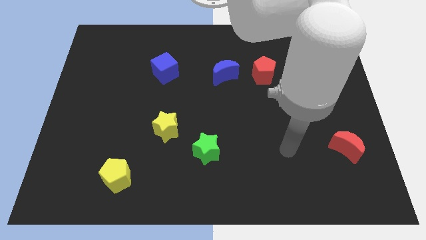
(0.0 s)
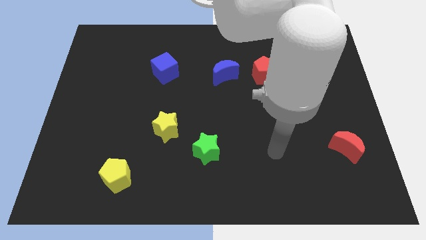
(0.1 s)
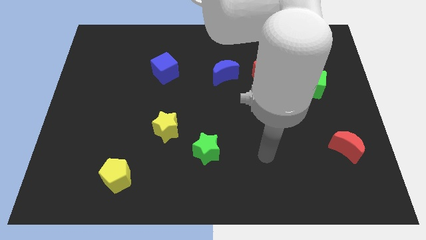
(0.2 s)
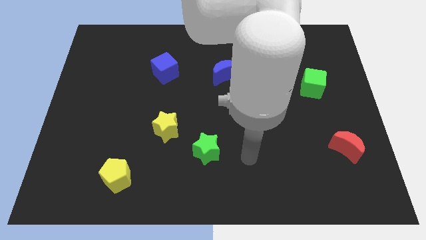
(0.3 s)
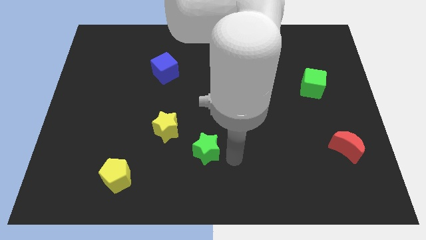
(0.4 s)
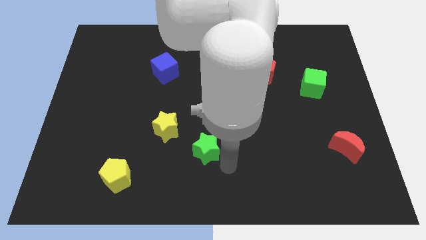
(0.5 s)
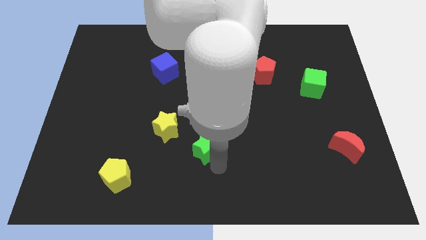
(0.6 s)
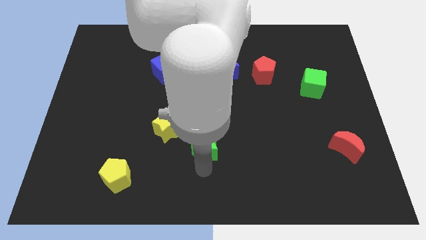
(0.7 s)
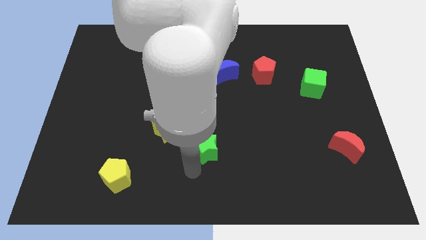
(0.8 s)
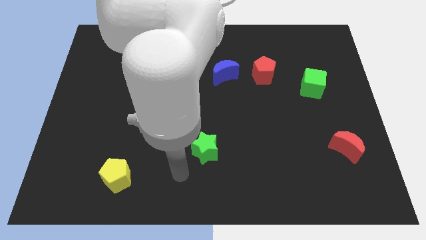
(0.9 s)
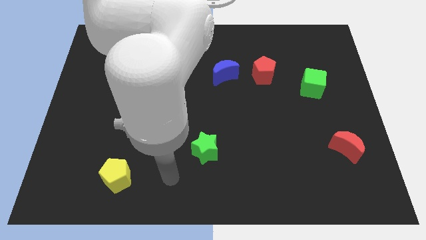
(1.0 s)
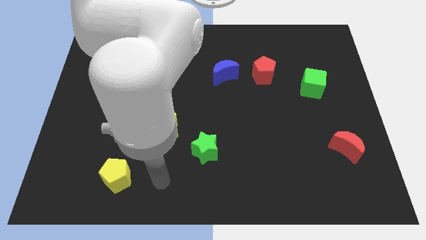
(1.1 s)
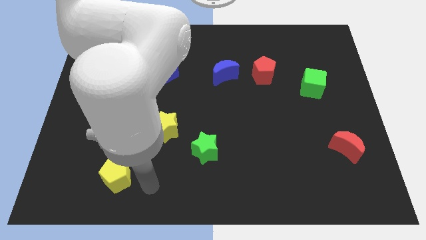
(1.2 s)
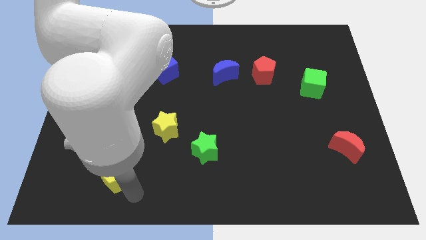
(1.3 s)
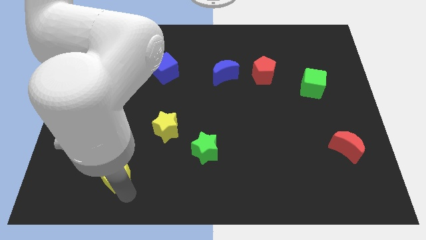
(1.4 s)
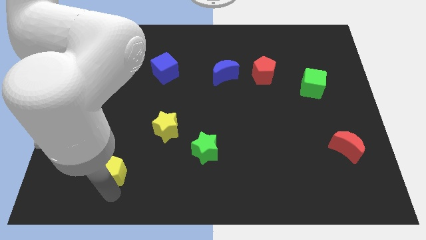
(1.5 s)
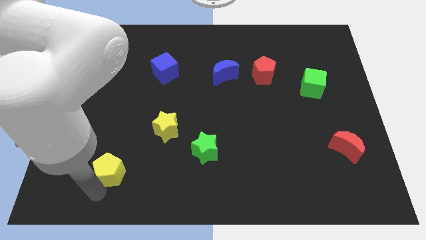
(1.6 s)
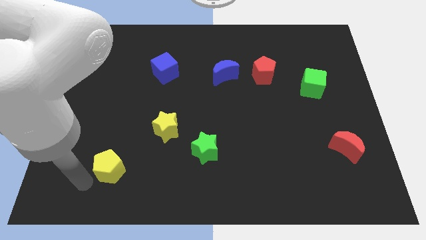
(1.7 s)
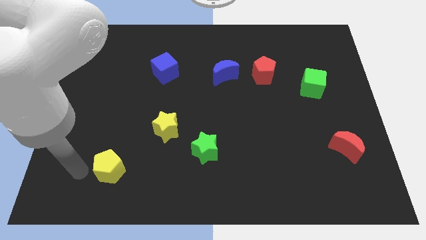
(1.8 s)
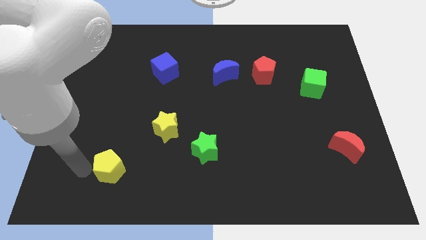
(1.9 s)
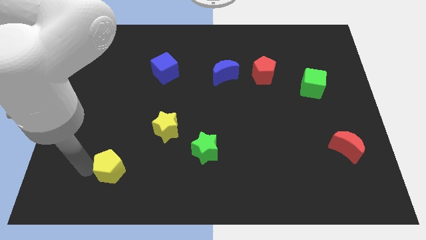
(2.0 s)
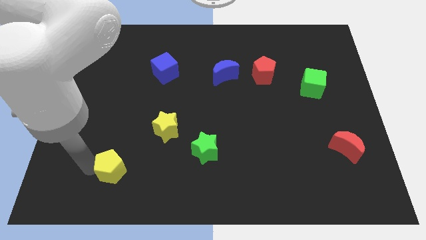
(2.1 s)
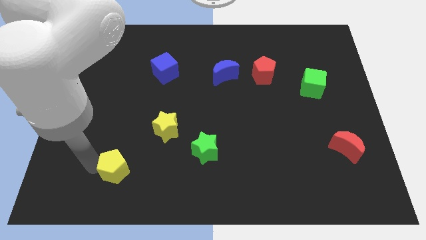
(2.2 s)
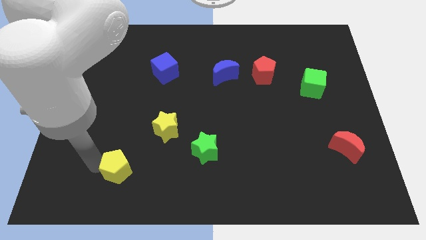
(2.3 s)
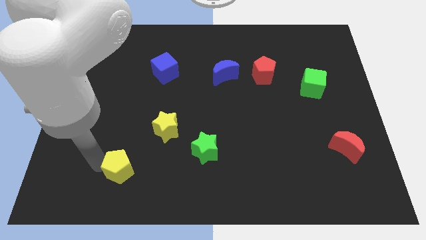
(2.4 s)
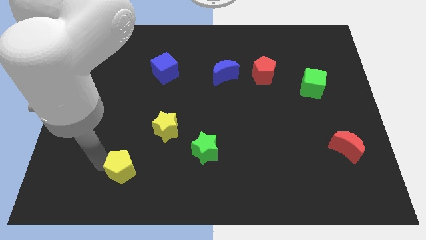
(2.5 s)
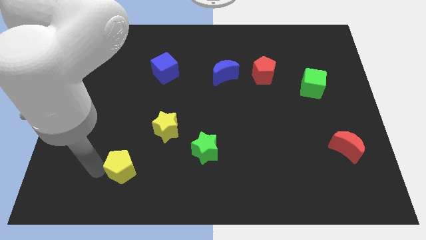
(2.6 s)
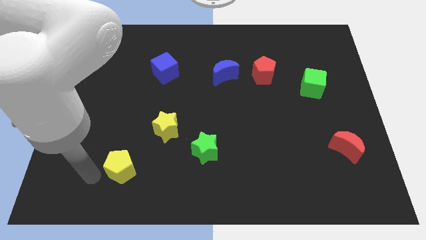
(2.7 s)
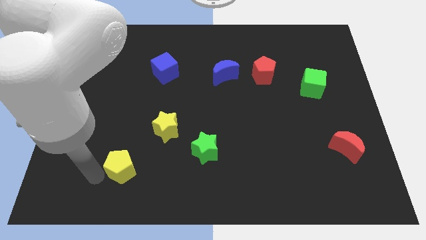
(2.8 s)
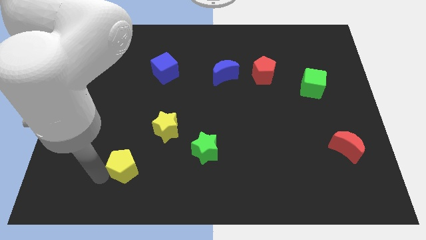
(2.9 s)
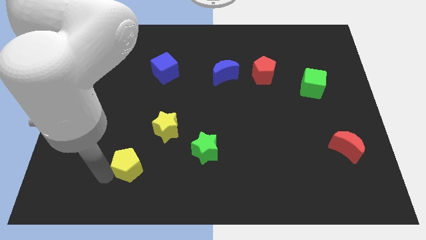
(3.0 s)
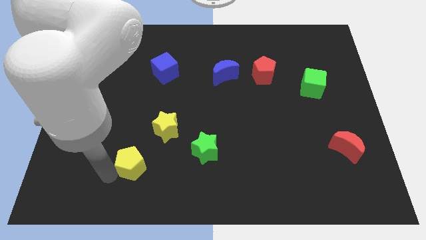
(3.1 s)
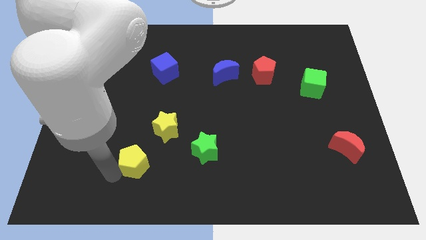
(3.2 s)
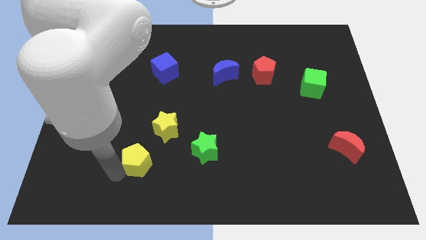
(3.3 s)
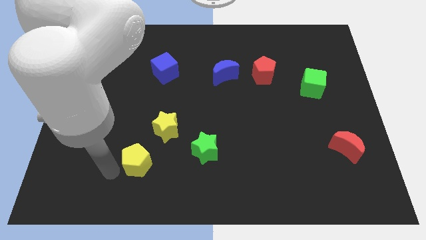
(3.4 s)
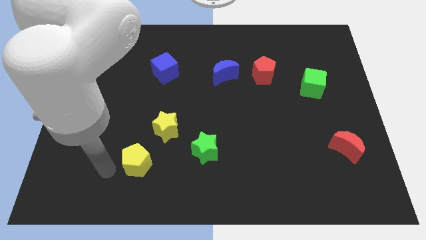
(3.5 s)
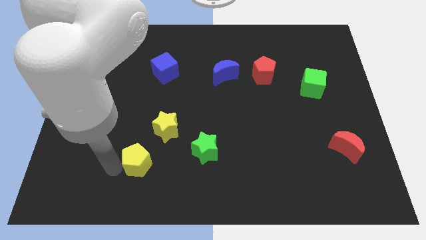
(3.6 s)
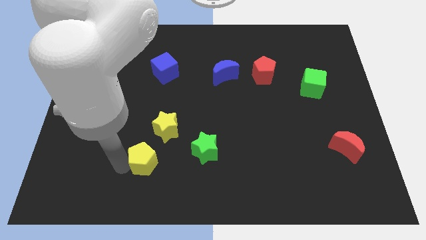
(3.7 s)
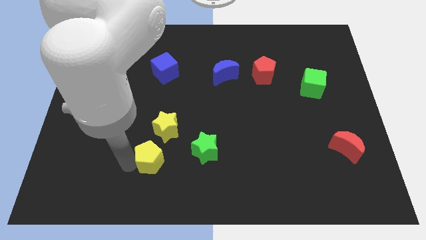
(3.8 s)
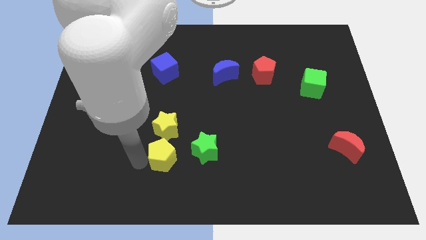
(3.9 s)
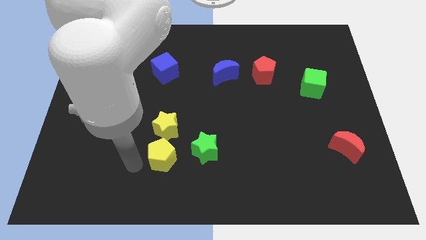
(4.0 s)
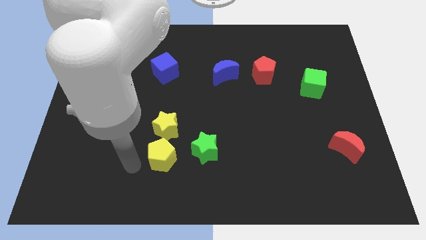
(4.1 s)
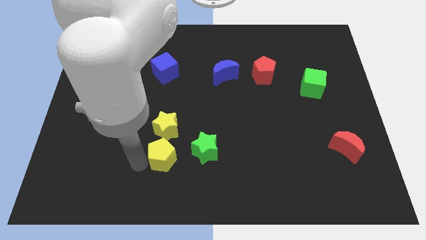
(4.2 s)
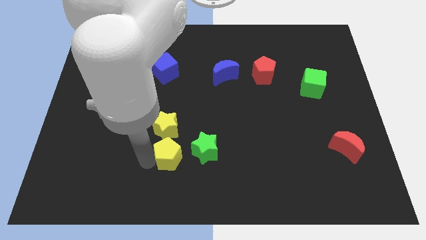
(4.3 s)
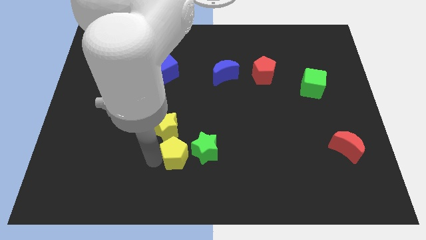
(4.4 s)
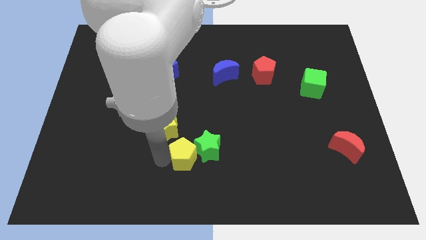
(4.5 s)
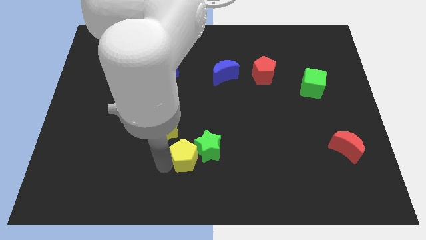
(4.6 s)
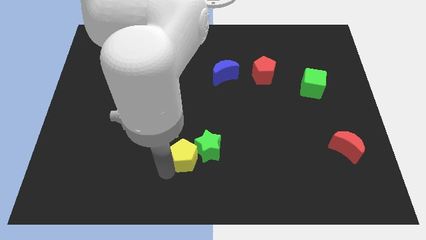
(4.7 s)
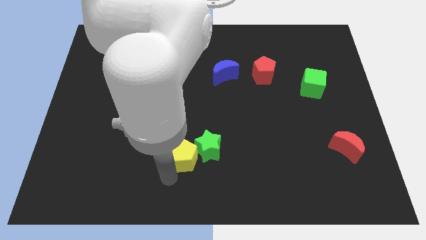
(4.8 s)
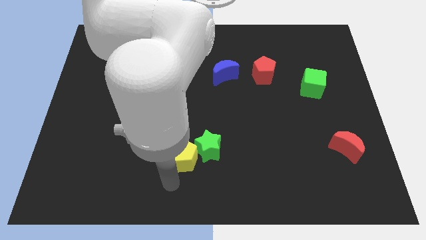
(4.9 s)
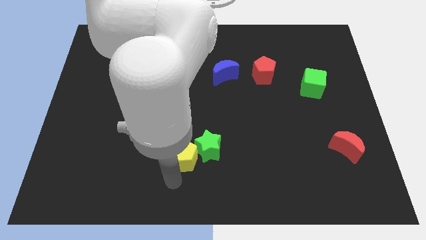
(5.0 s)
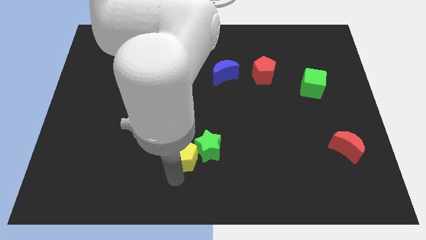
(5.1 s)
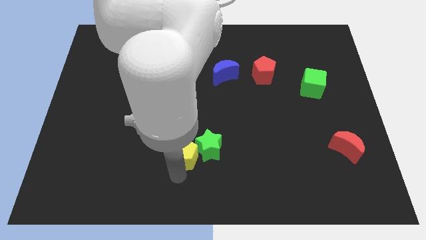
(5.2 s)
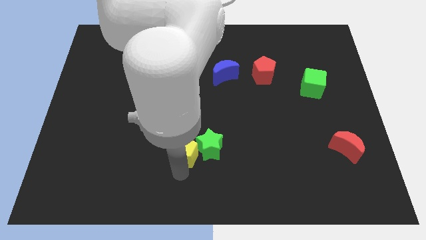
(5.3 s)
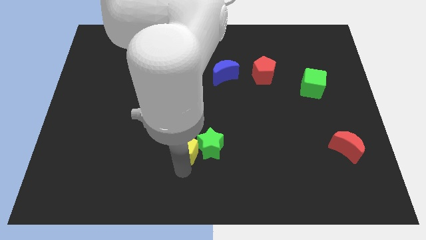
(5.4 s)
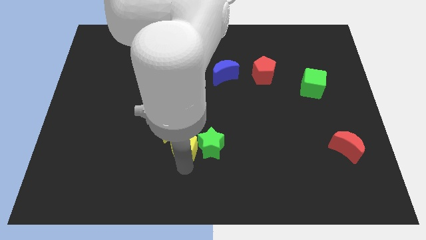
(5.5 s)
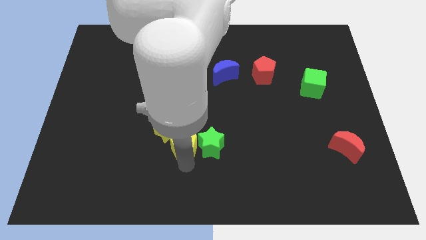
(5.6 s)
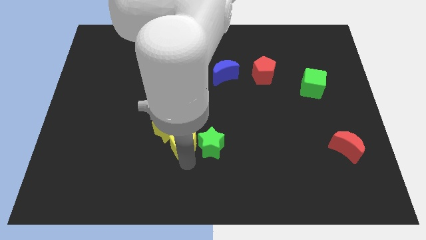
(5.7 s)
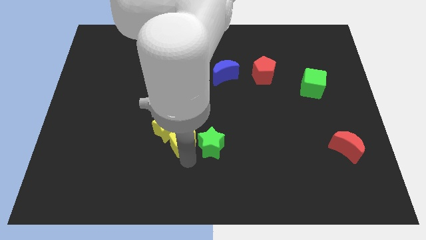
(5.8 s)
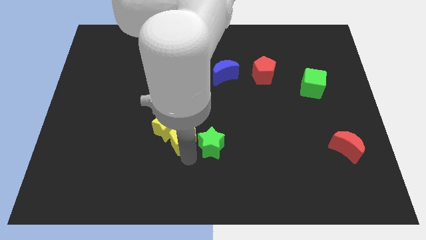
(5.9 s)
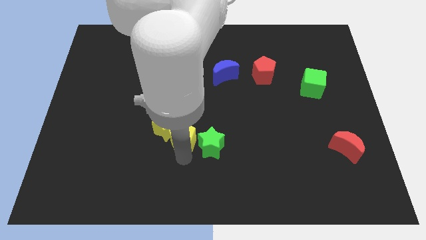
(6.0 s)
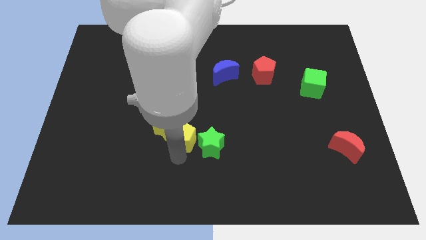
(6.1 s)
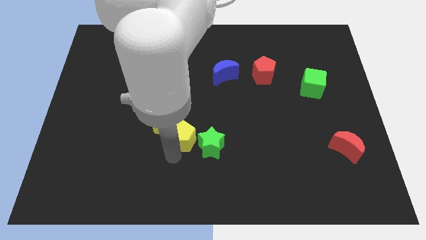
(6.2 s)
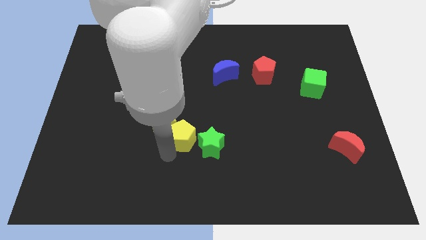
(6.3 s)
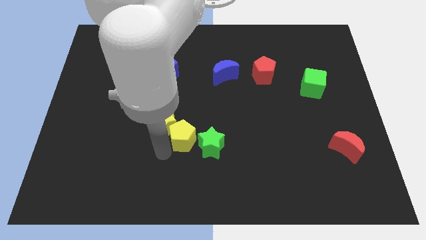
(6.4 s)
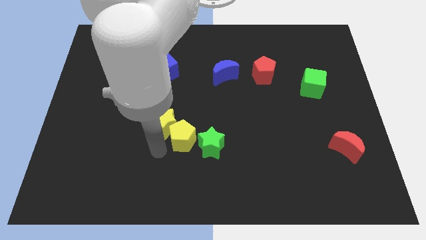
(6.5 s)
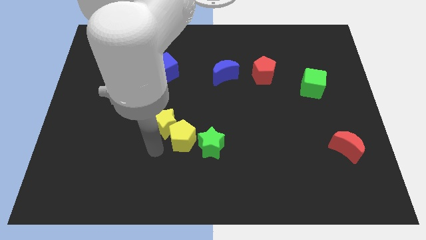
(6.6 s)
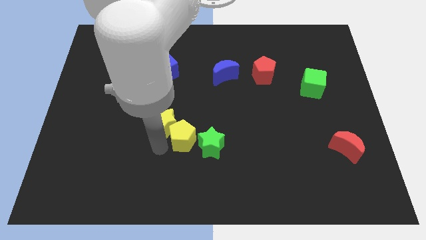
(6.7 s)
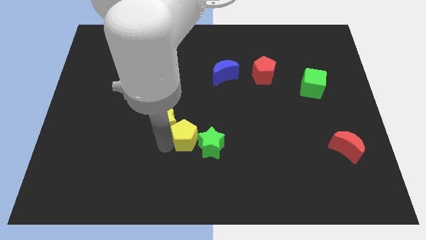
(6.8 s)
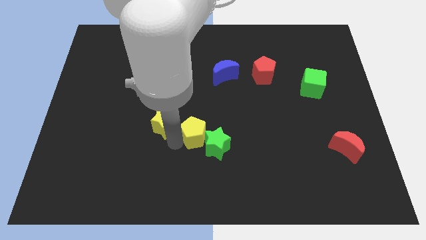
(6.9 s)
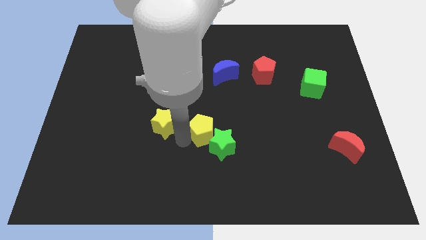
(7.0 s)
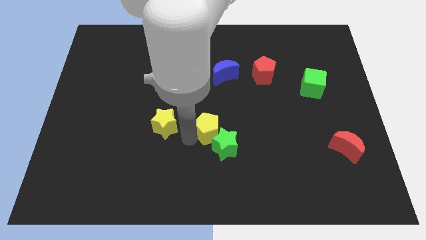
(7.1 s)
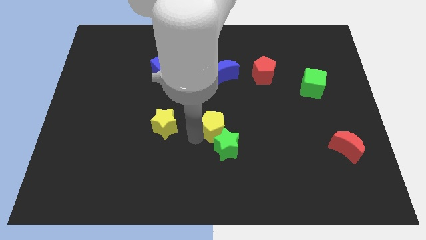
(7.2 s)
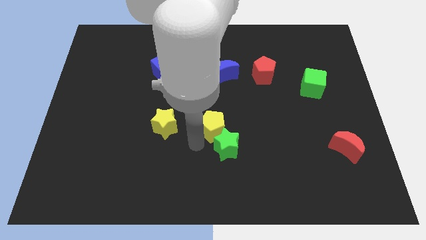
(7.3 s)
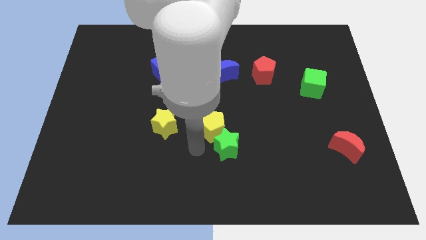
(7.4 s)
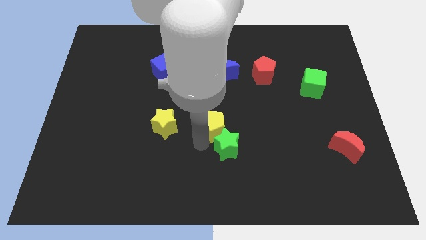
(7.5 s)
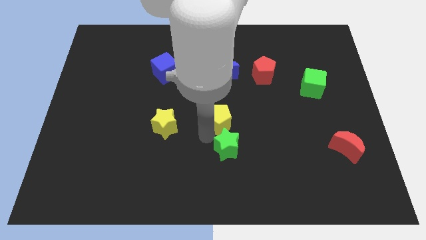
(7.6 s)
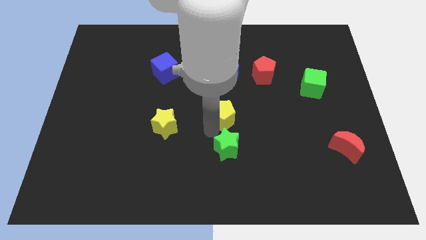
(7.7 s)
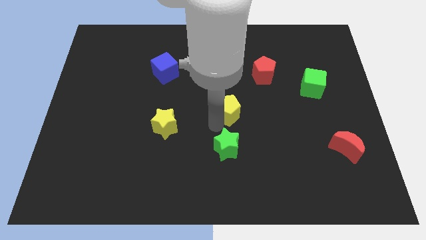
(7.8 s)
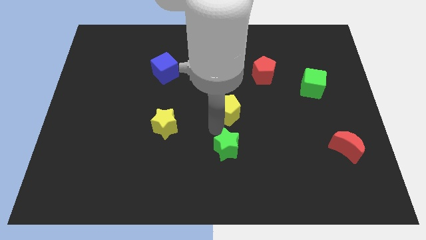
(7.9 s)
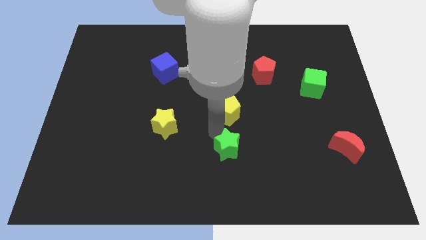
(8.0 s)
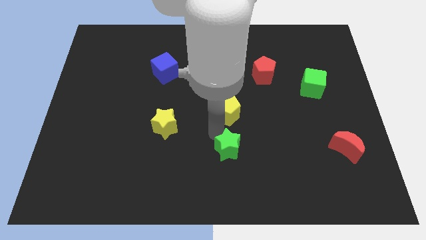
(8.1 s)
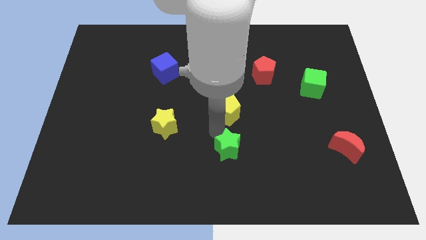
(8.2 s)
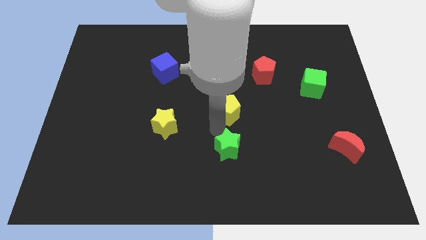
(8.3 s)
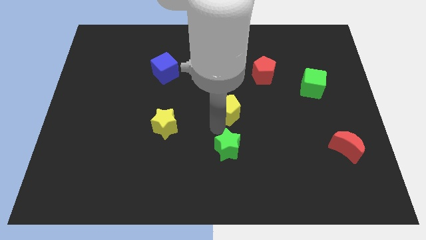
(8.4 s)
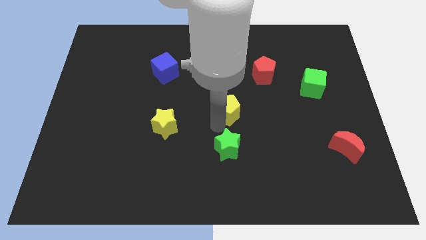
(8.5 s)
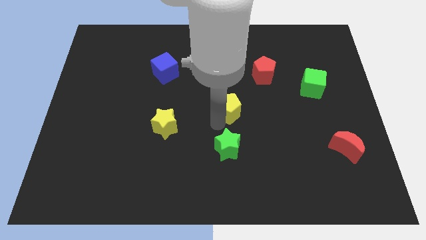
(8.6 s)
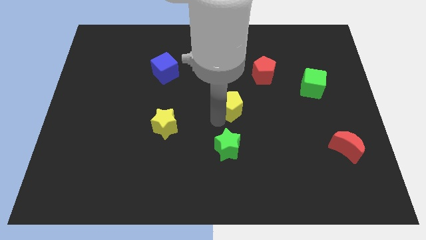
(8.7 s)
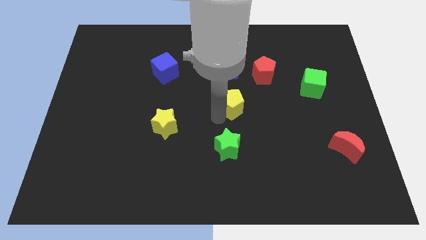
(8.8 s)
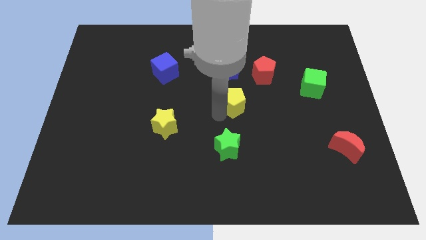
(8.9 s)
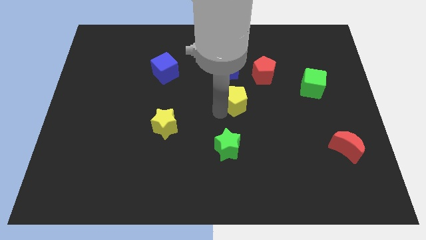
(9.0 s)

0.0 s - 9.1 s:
put the yellow pentagon to the bottom right side of the blue moon
